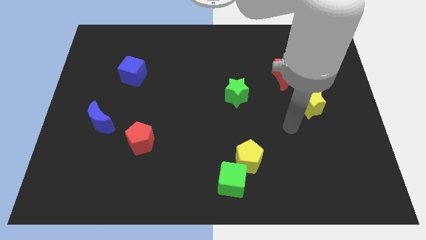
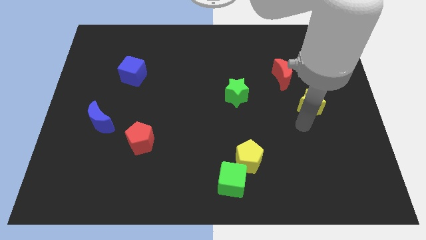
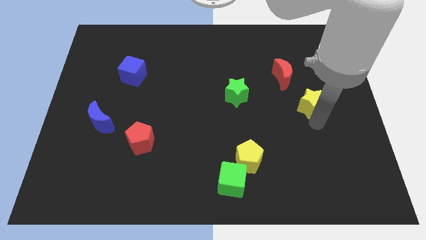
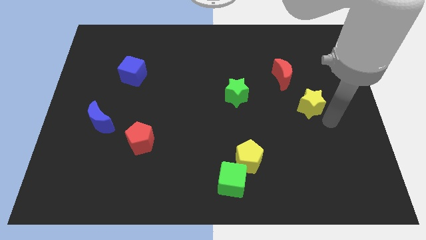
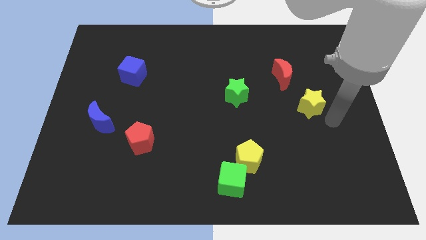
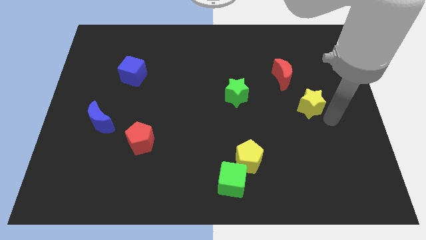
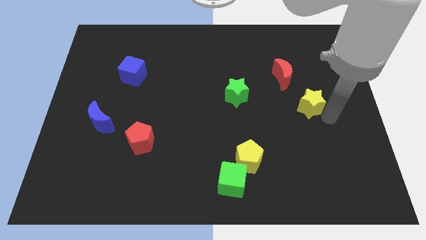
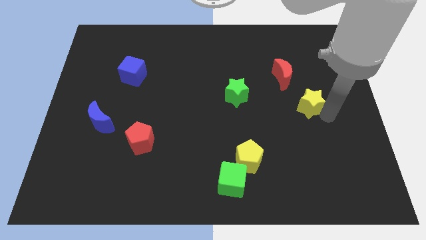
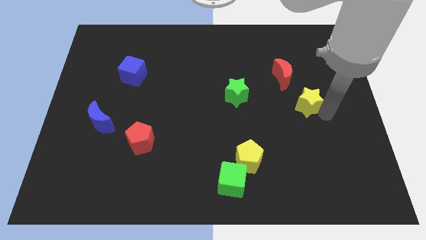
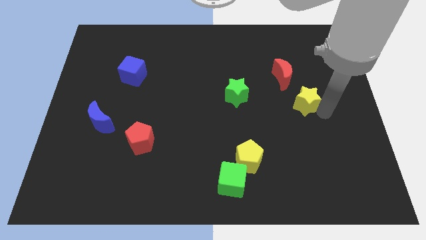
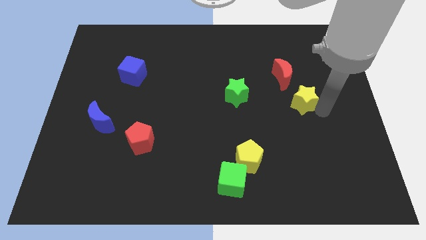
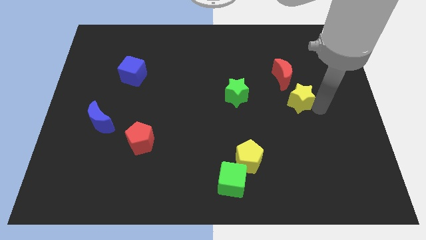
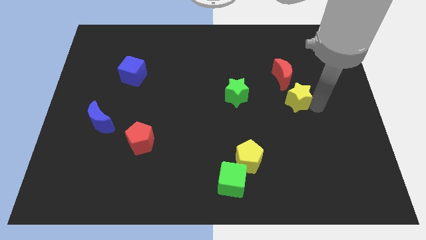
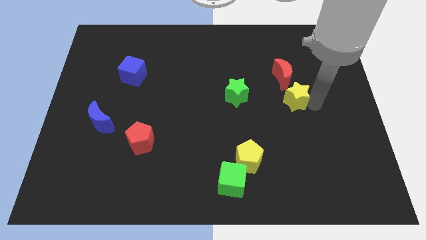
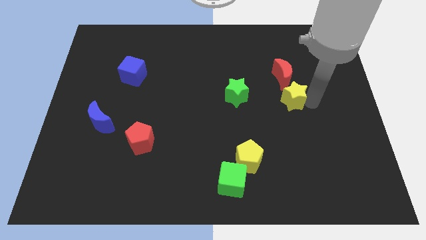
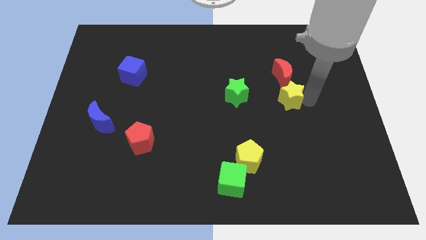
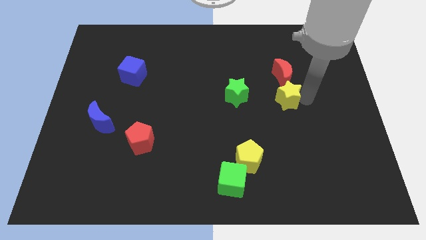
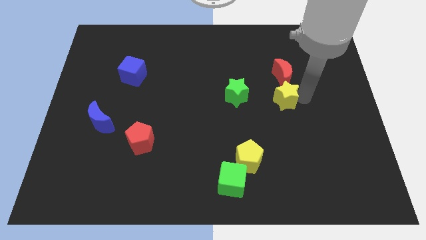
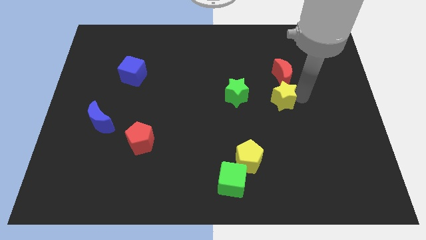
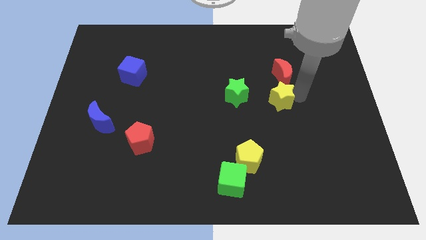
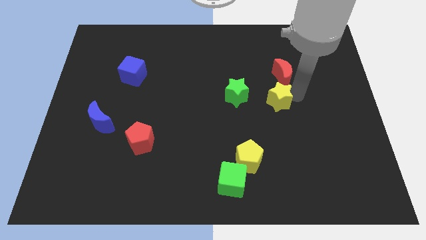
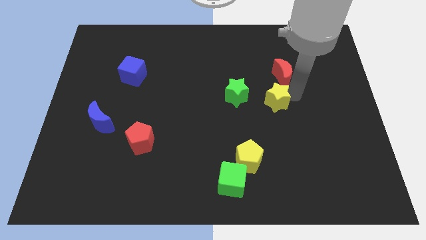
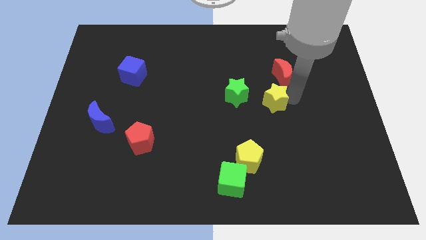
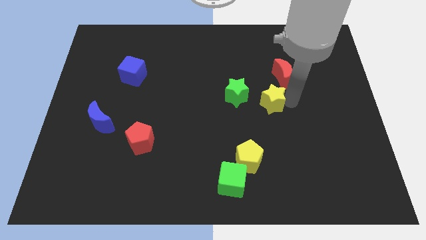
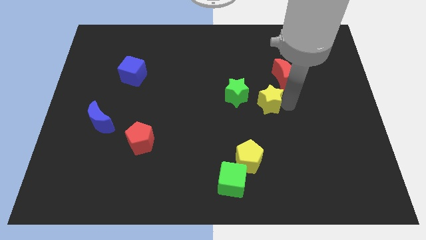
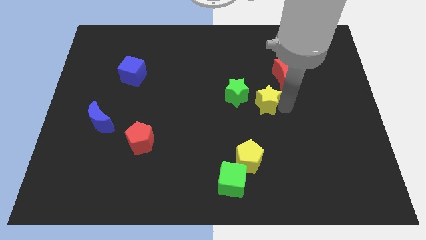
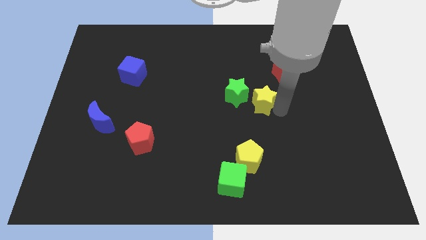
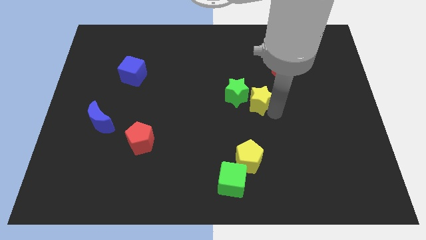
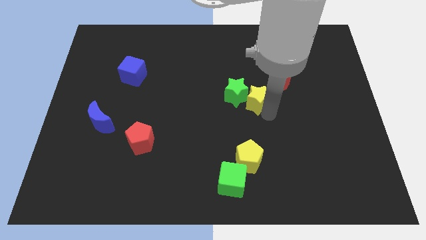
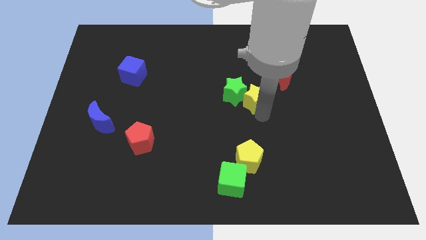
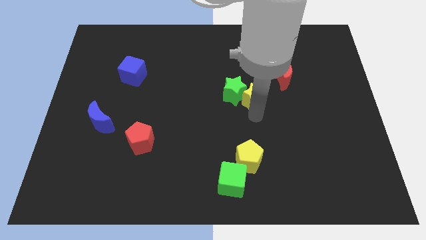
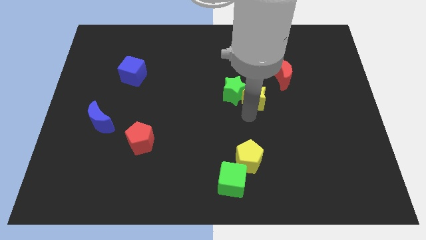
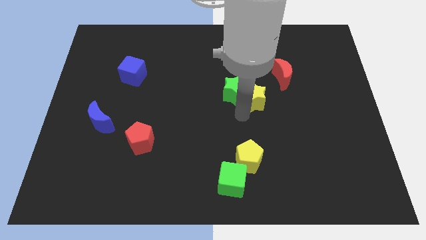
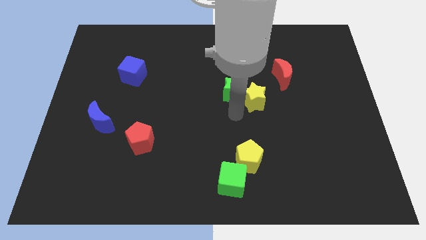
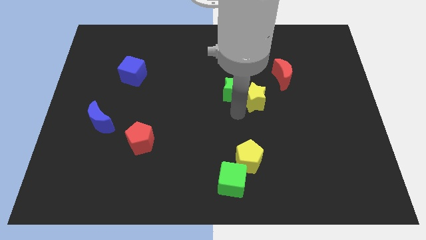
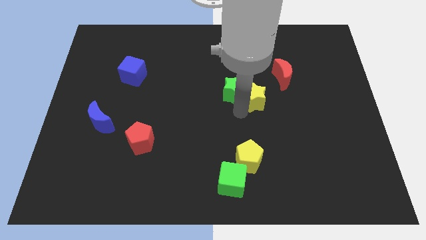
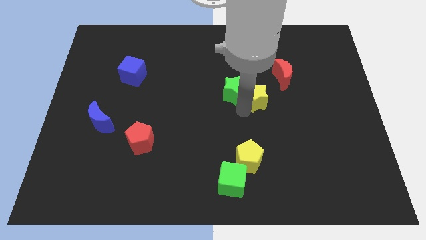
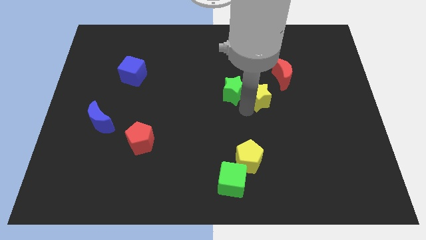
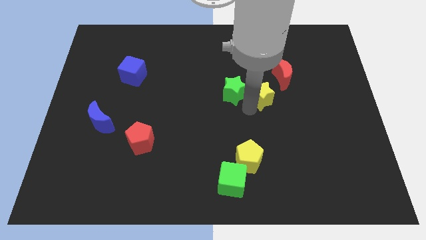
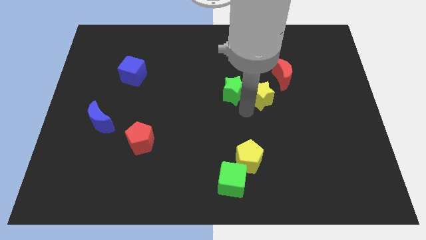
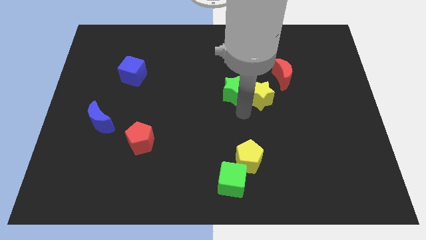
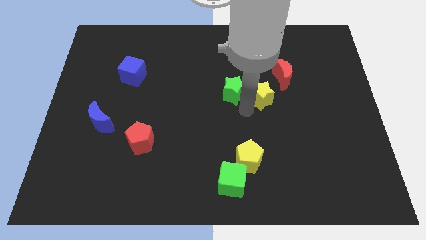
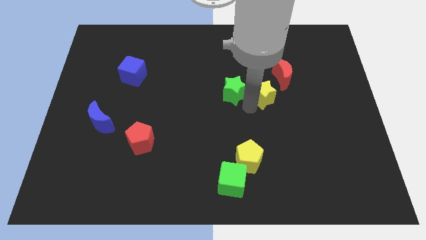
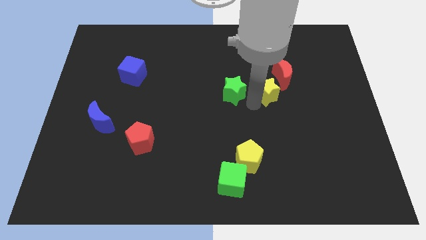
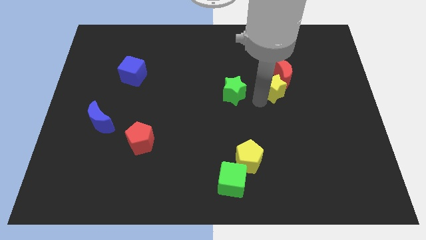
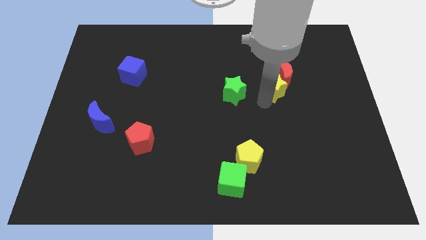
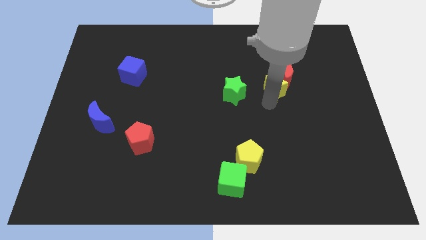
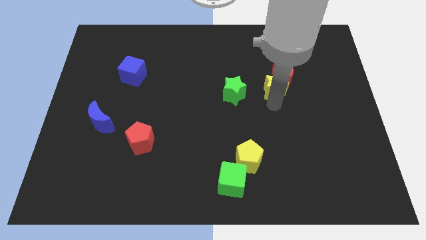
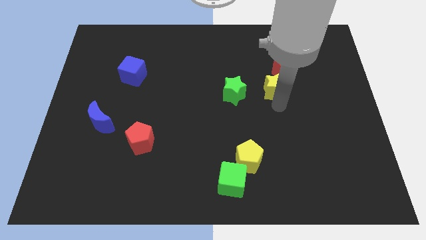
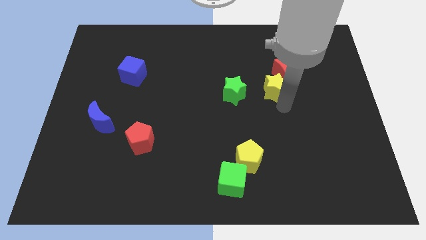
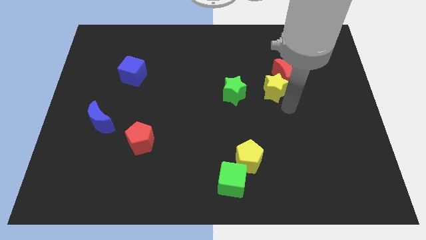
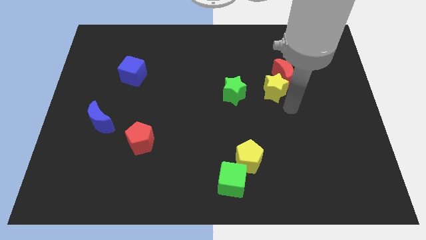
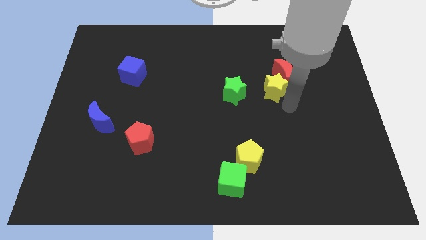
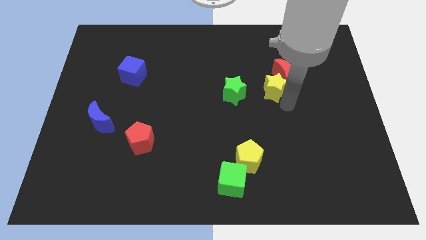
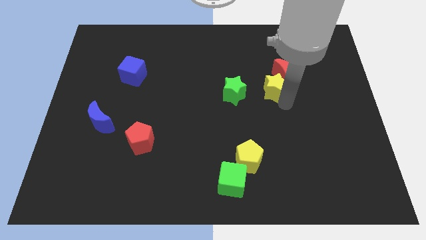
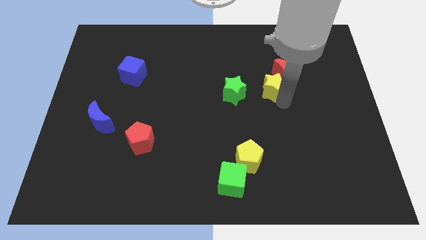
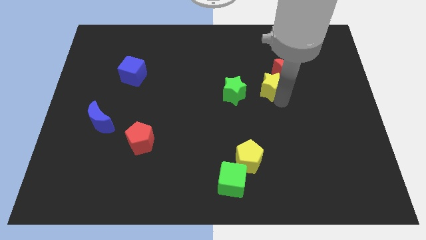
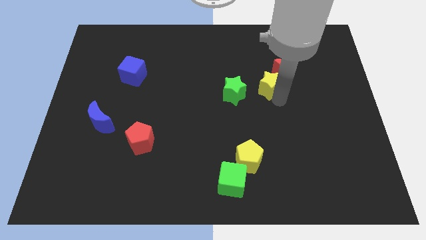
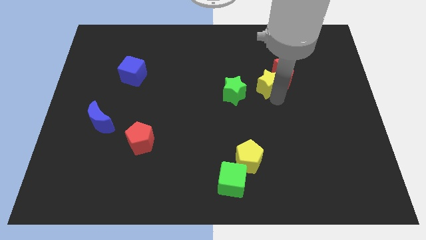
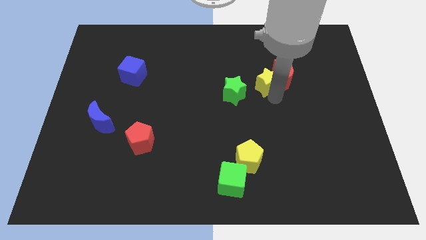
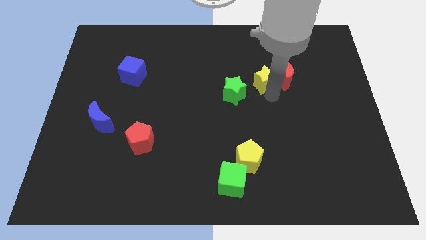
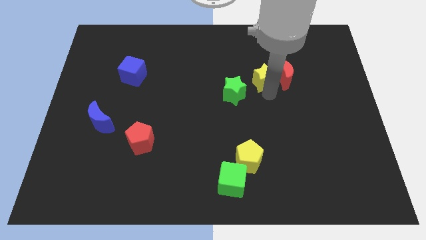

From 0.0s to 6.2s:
move the yellow star to the top left of the red moon

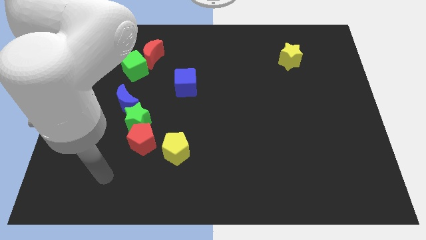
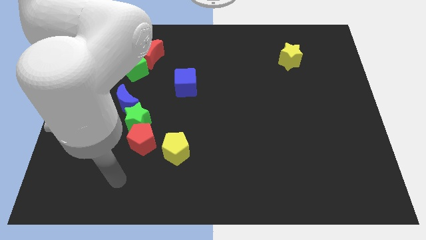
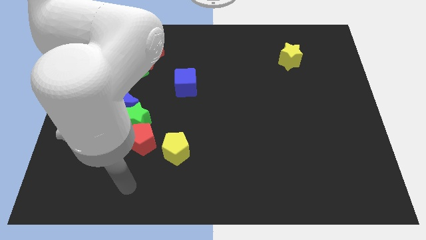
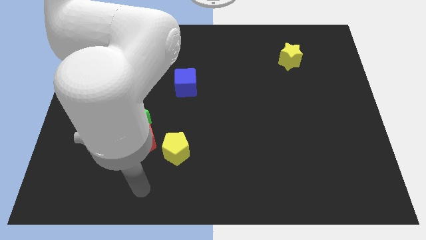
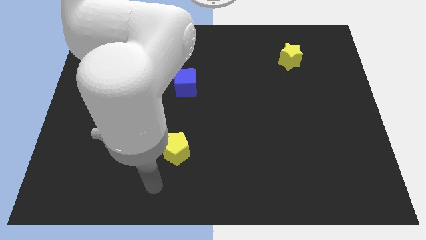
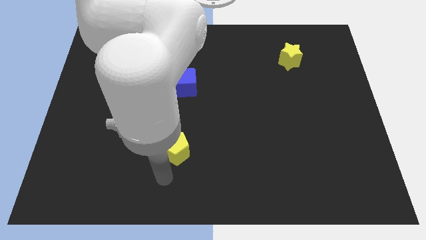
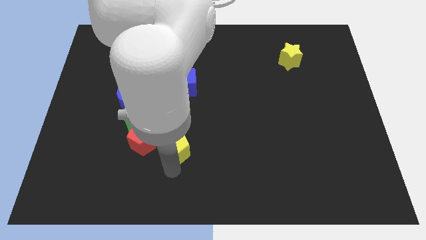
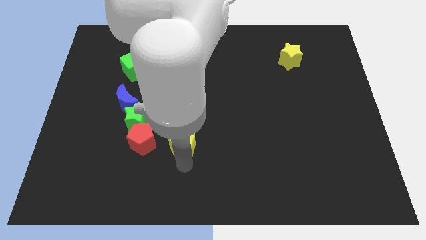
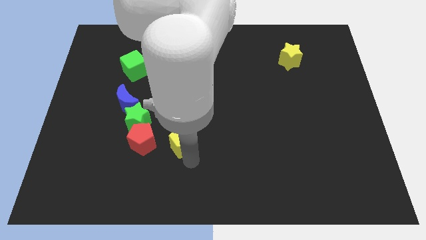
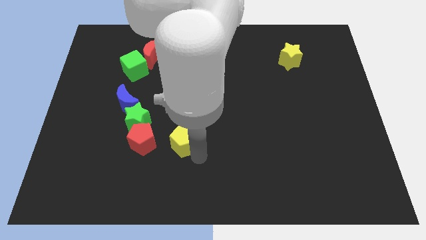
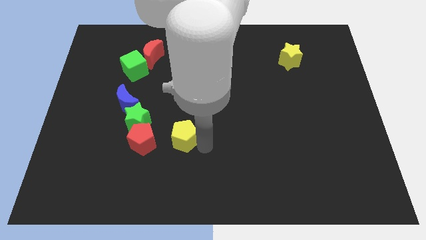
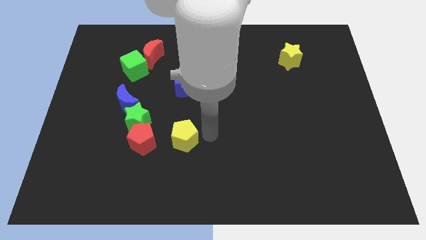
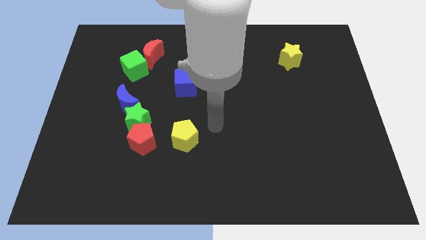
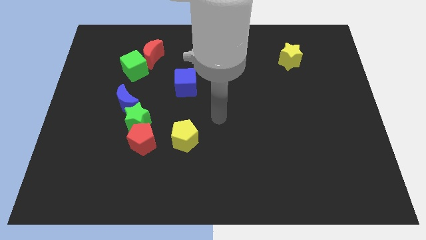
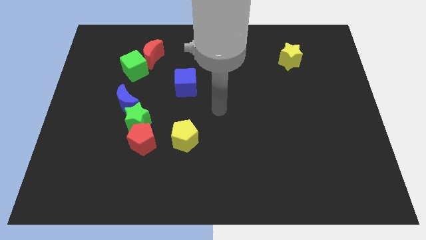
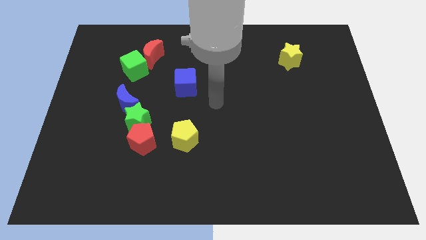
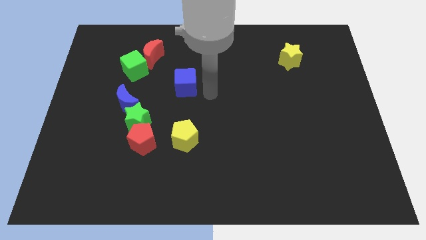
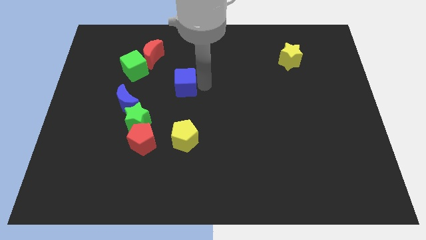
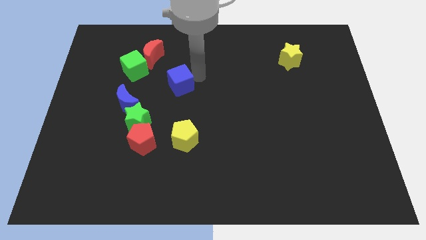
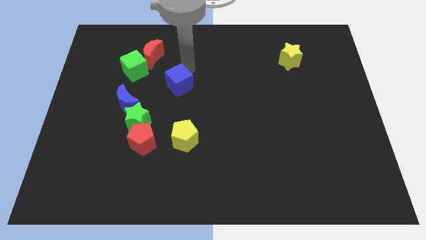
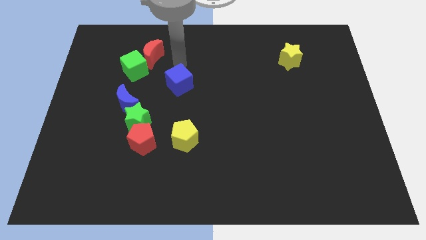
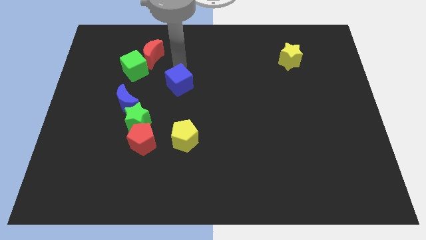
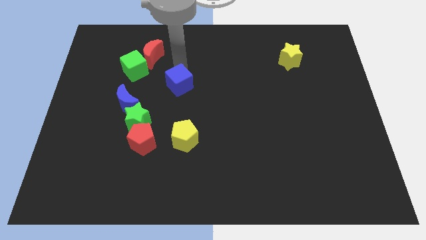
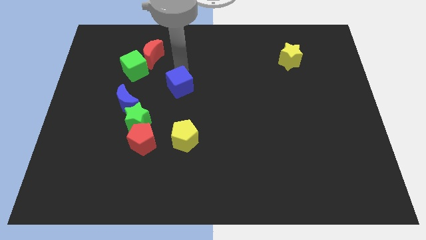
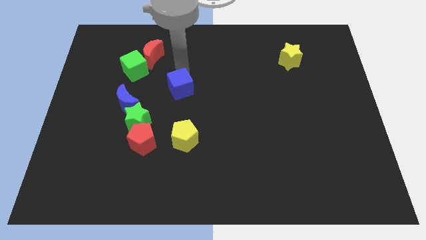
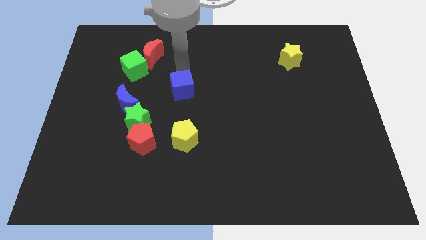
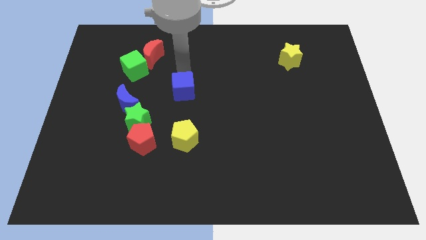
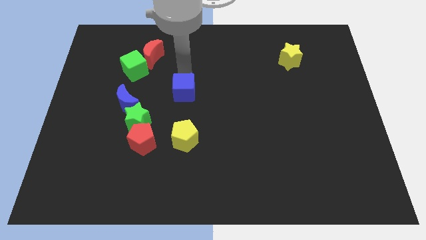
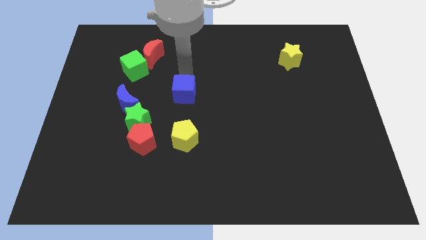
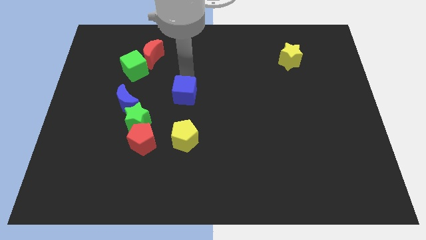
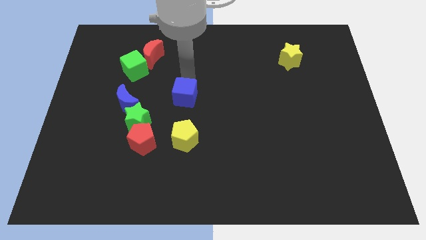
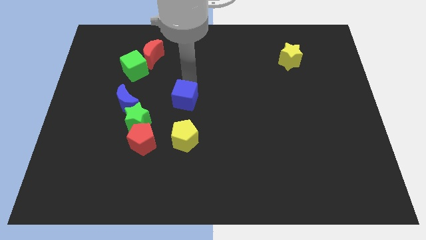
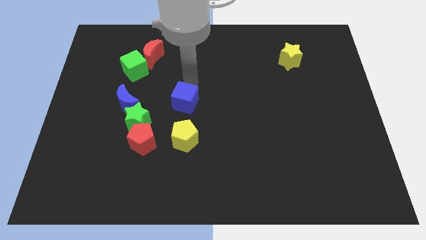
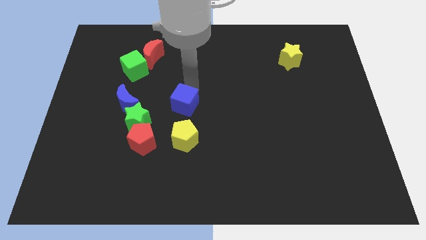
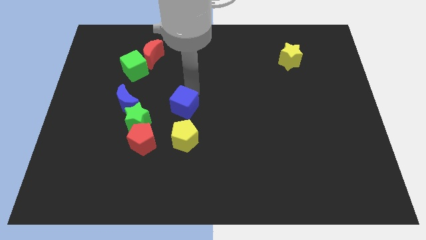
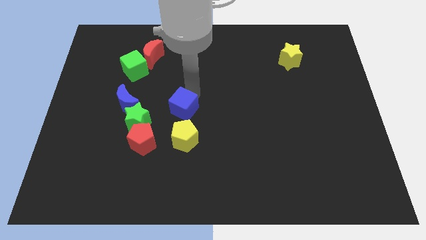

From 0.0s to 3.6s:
move the blue cube to the top right side of the red pentagon
